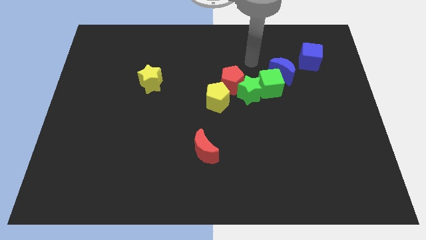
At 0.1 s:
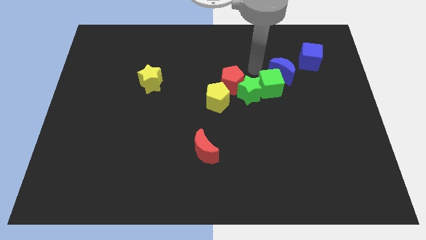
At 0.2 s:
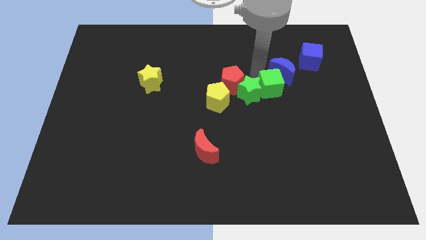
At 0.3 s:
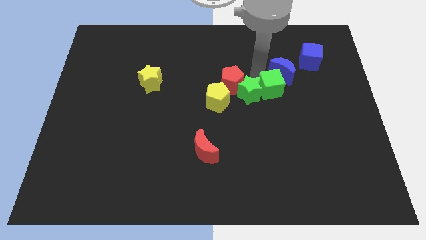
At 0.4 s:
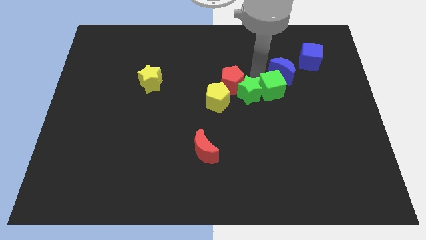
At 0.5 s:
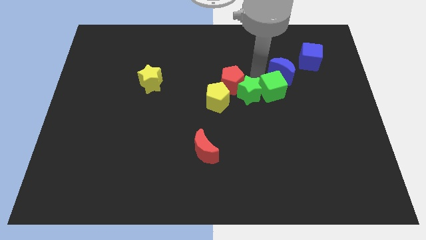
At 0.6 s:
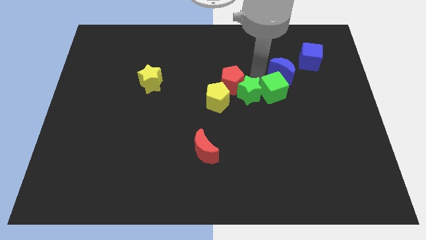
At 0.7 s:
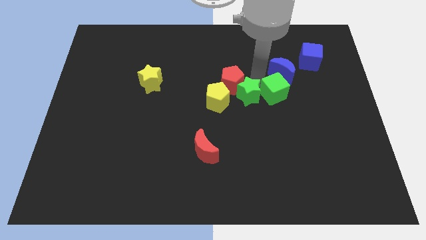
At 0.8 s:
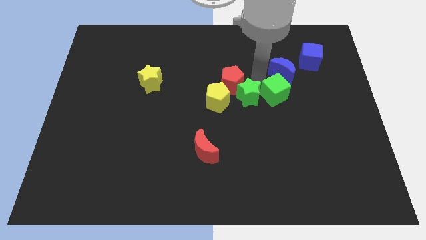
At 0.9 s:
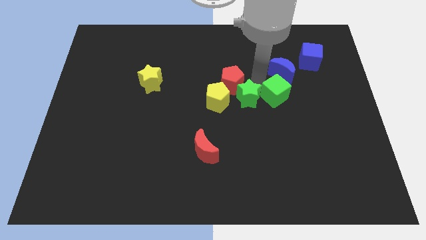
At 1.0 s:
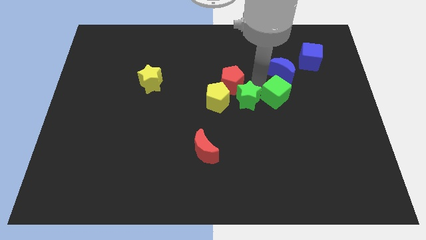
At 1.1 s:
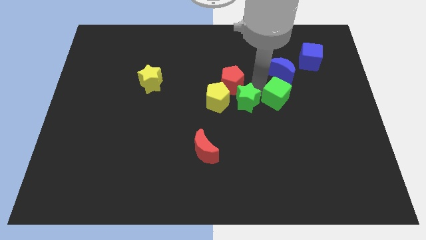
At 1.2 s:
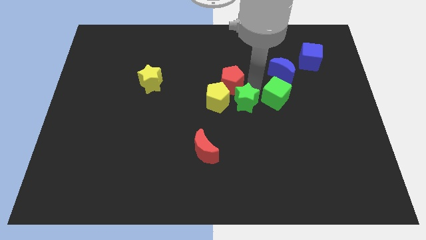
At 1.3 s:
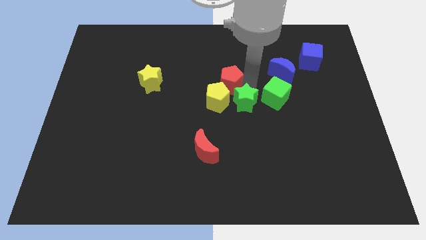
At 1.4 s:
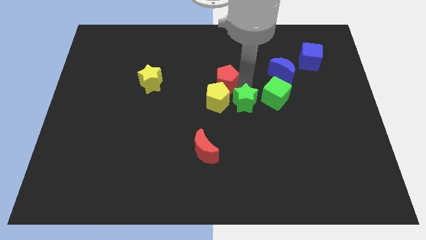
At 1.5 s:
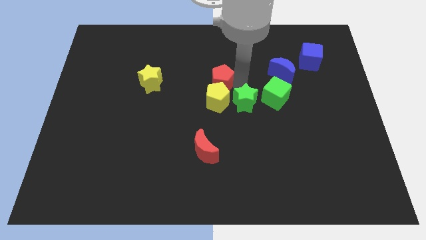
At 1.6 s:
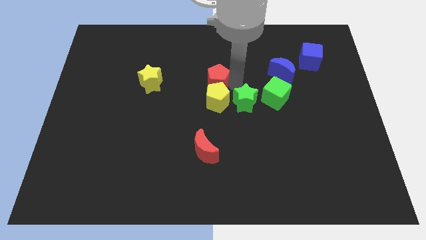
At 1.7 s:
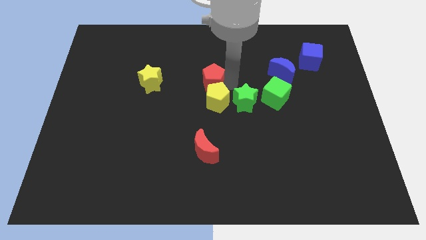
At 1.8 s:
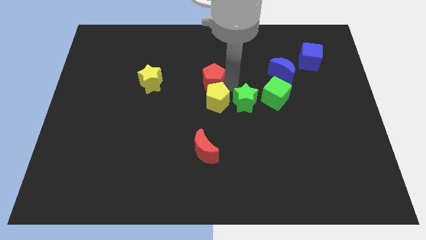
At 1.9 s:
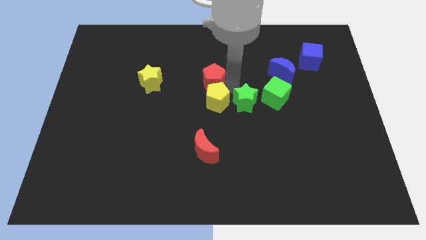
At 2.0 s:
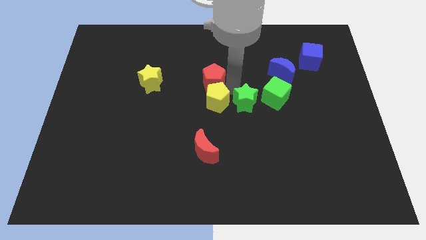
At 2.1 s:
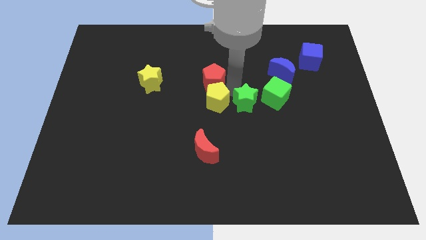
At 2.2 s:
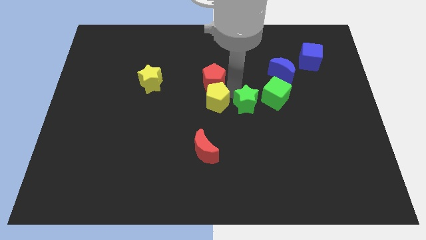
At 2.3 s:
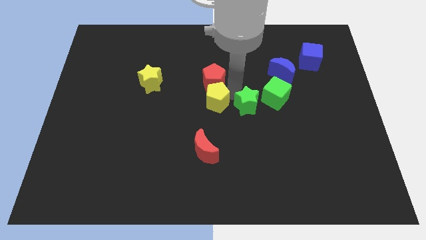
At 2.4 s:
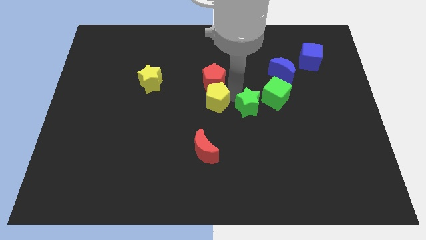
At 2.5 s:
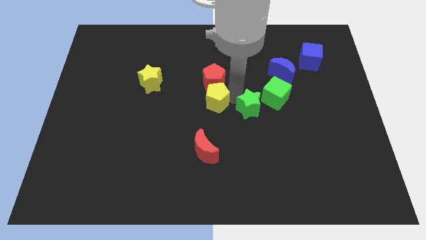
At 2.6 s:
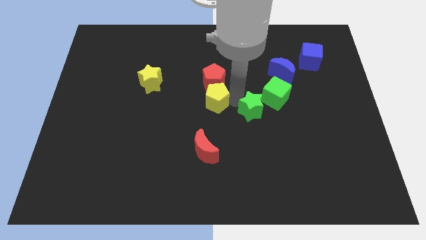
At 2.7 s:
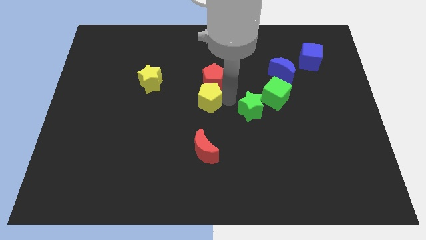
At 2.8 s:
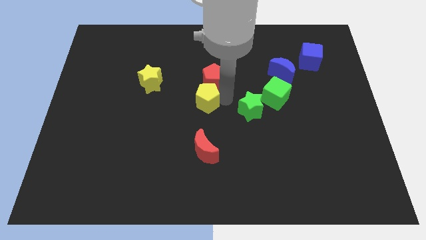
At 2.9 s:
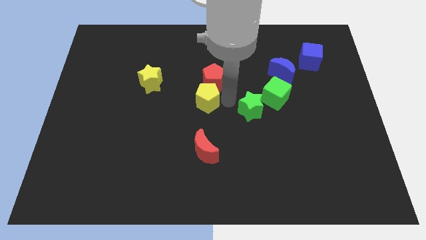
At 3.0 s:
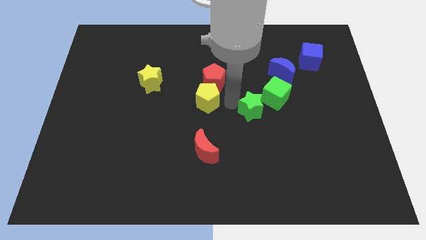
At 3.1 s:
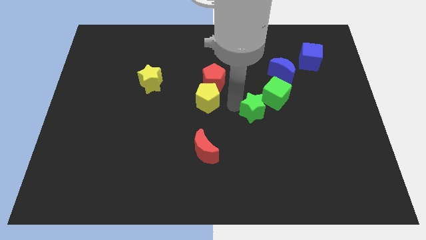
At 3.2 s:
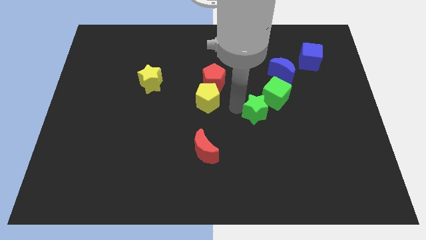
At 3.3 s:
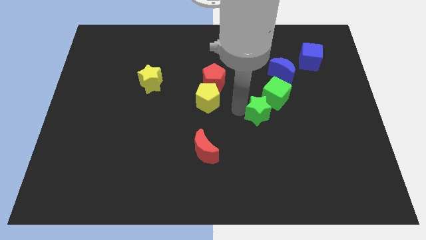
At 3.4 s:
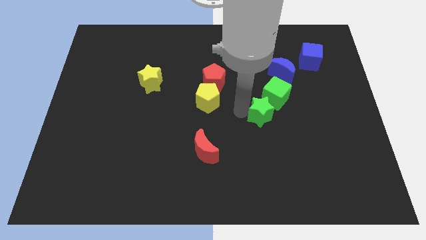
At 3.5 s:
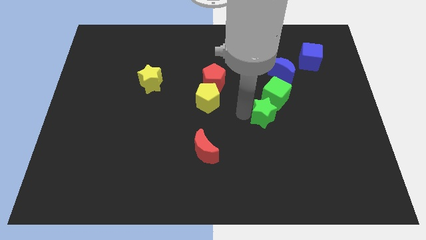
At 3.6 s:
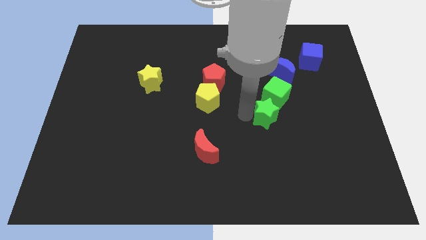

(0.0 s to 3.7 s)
separate the green star from the group

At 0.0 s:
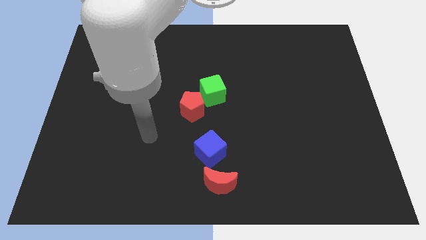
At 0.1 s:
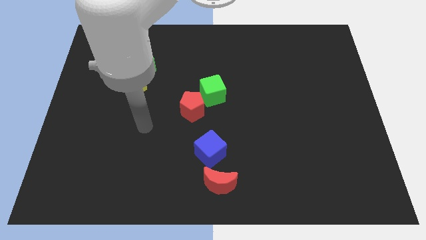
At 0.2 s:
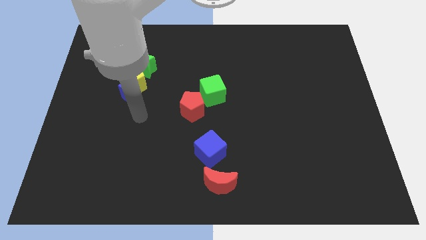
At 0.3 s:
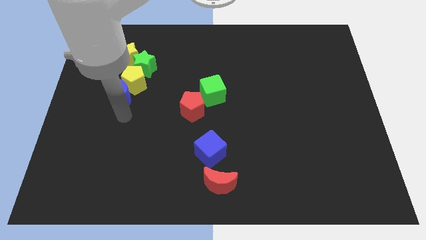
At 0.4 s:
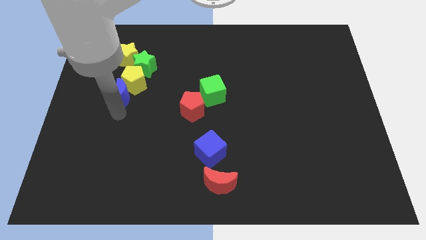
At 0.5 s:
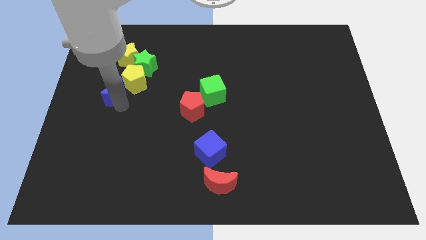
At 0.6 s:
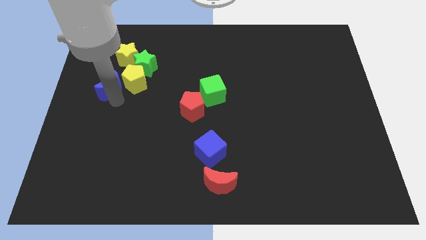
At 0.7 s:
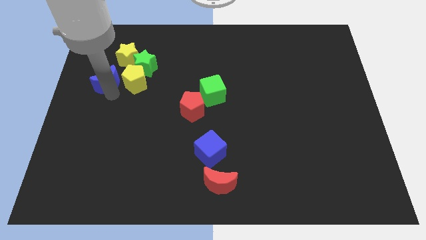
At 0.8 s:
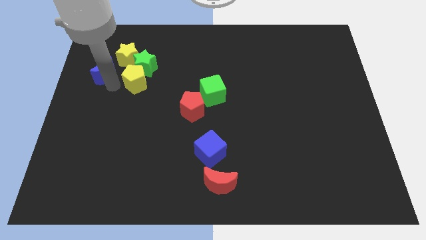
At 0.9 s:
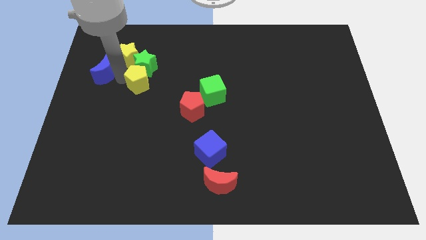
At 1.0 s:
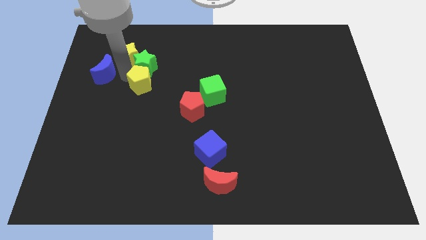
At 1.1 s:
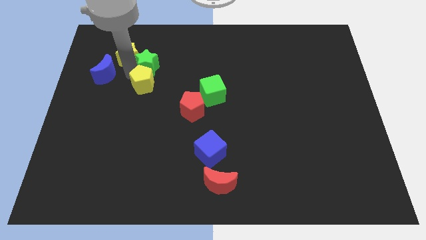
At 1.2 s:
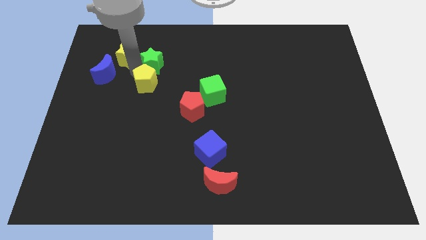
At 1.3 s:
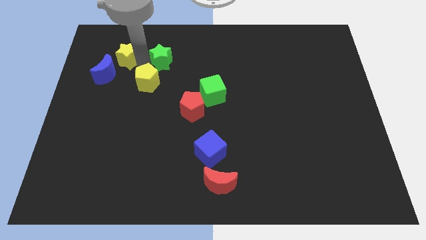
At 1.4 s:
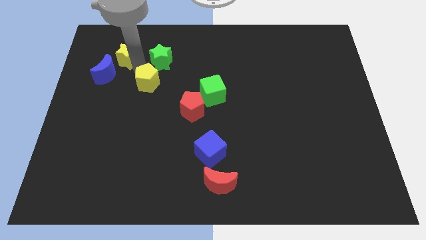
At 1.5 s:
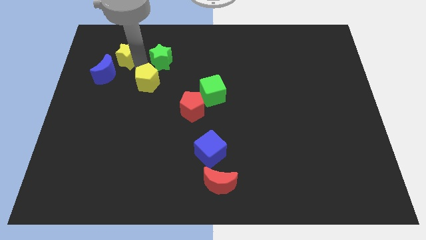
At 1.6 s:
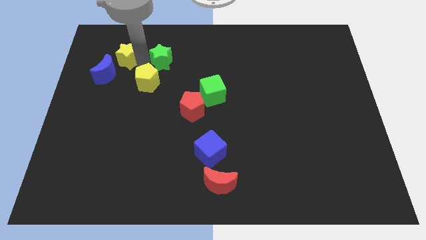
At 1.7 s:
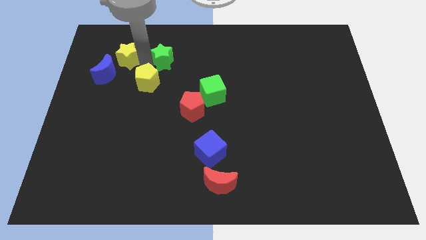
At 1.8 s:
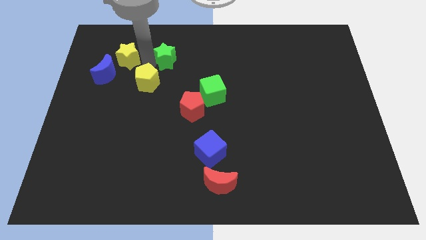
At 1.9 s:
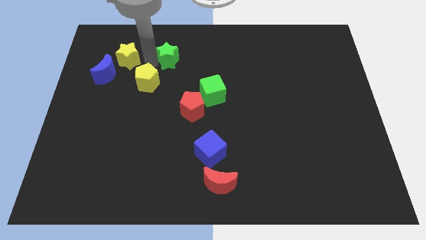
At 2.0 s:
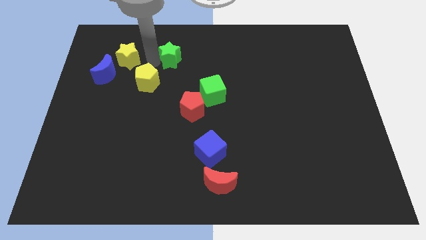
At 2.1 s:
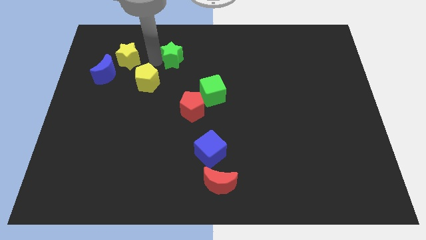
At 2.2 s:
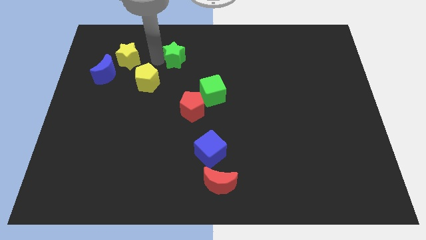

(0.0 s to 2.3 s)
separate the green star from the yellow pentagon and yellow star

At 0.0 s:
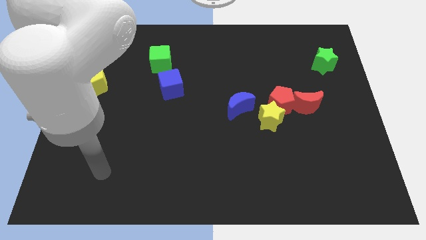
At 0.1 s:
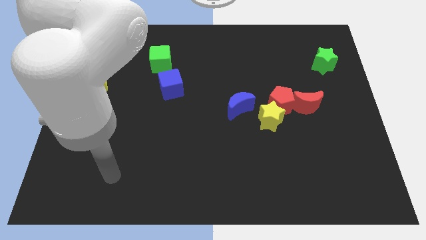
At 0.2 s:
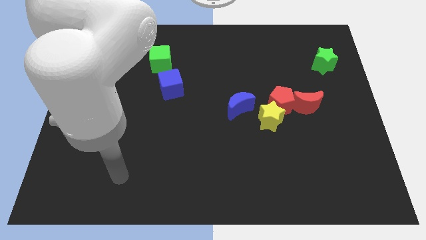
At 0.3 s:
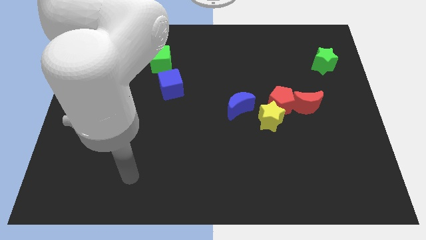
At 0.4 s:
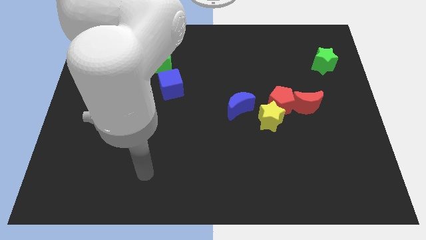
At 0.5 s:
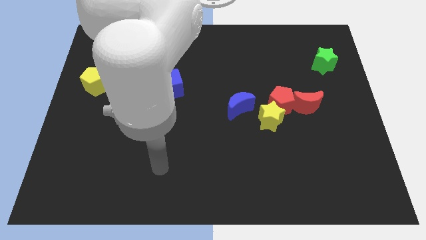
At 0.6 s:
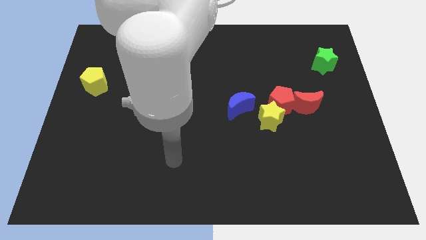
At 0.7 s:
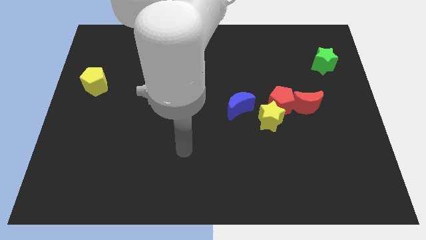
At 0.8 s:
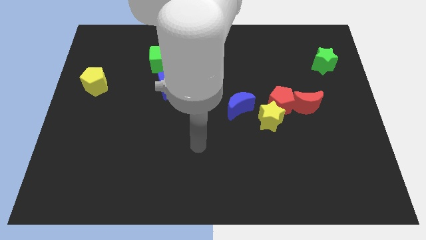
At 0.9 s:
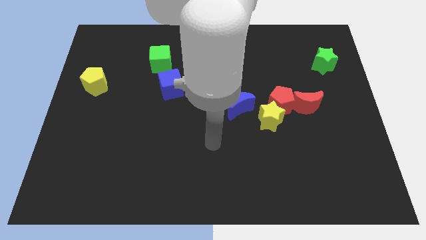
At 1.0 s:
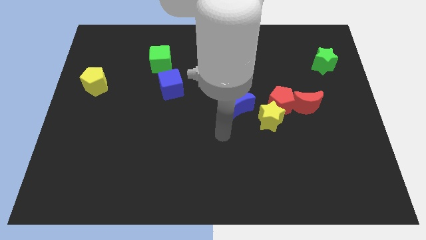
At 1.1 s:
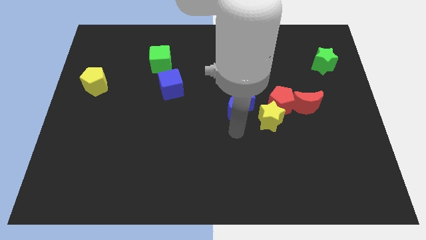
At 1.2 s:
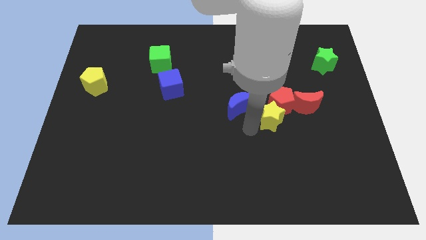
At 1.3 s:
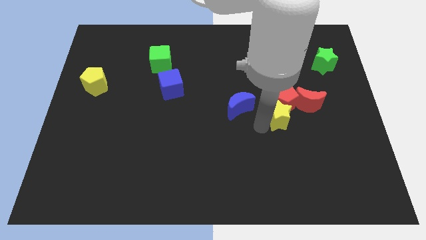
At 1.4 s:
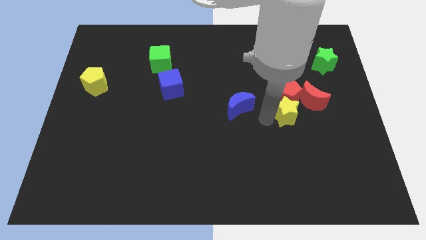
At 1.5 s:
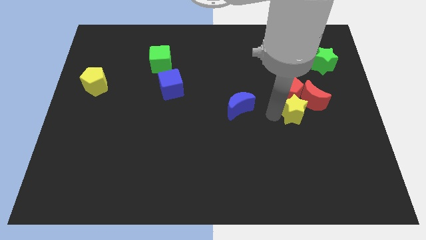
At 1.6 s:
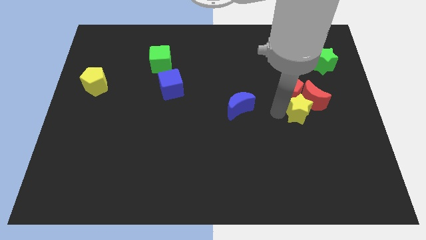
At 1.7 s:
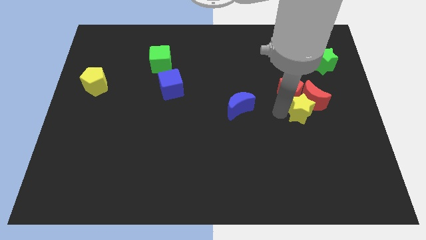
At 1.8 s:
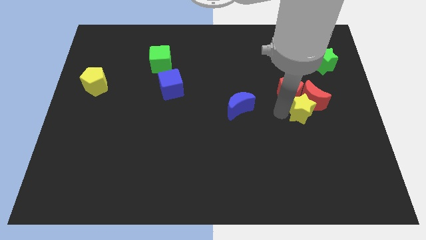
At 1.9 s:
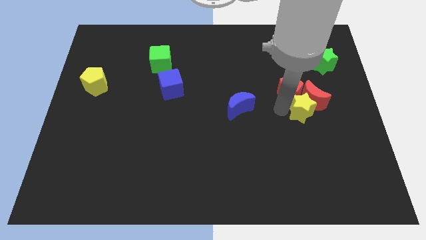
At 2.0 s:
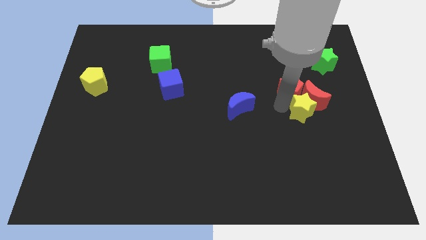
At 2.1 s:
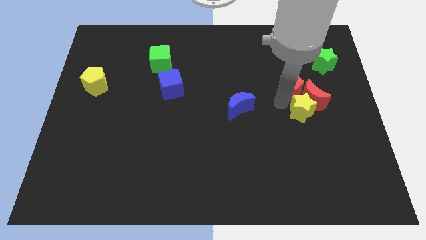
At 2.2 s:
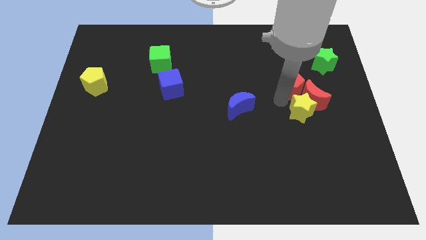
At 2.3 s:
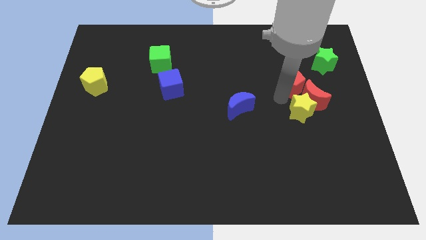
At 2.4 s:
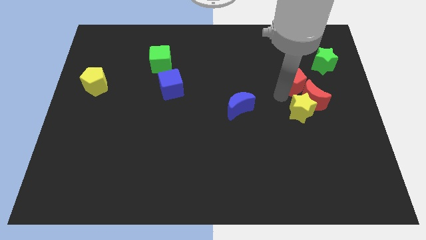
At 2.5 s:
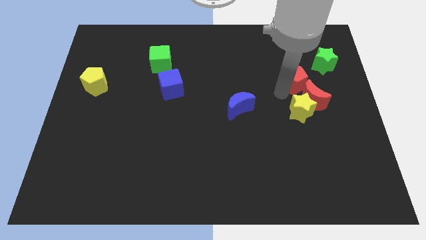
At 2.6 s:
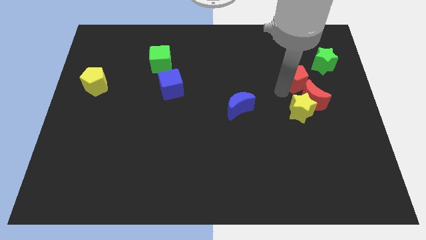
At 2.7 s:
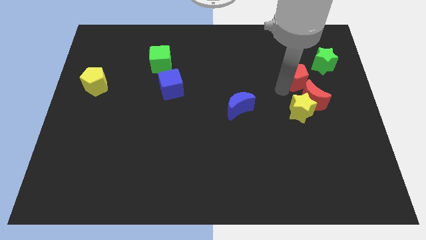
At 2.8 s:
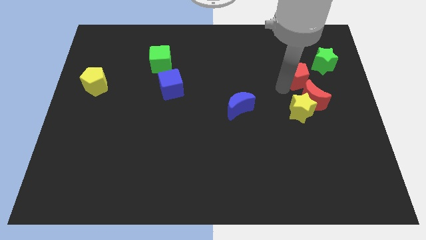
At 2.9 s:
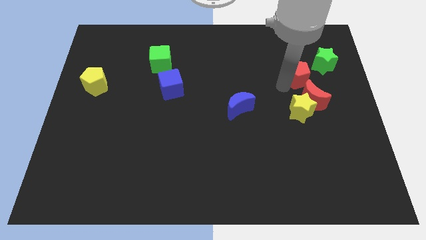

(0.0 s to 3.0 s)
separate the red pentagon from the group

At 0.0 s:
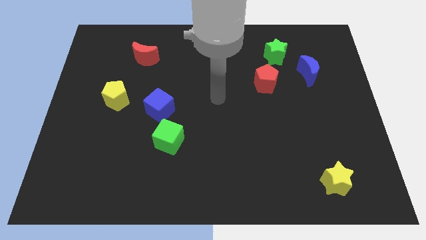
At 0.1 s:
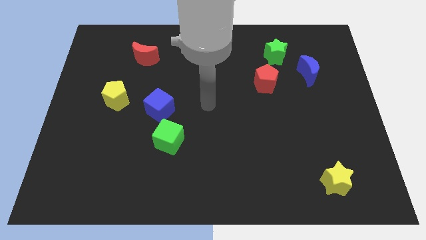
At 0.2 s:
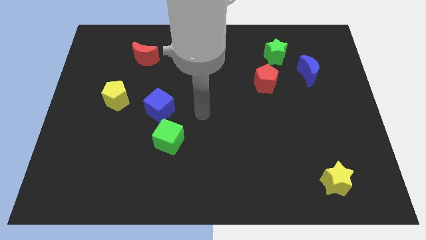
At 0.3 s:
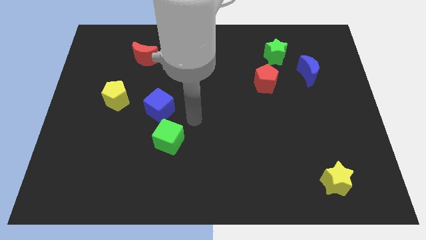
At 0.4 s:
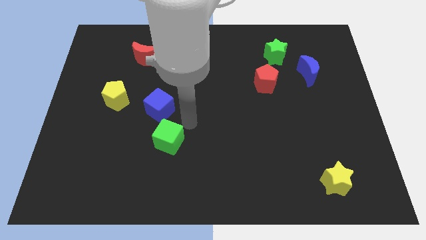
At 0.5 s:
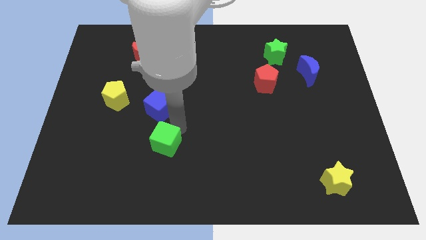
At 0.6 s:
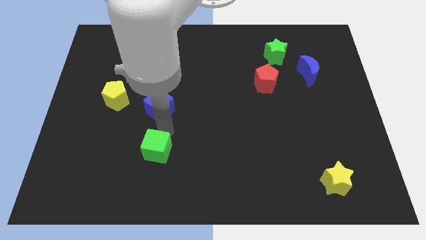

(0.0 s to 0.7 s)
move the blue cube away from the green cube
